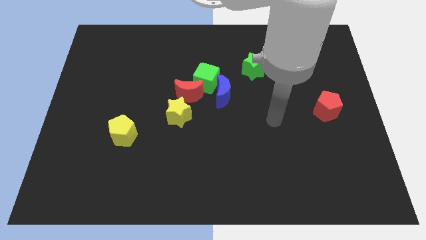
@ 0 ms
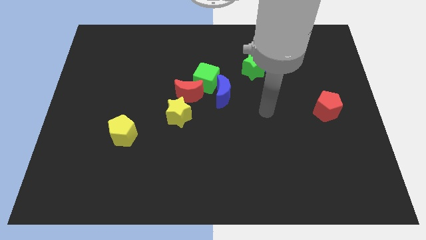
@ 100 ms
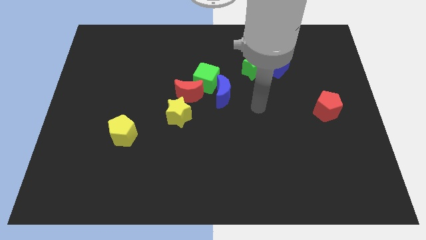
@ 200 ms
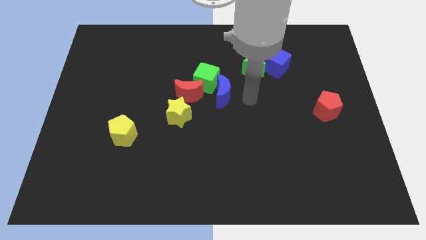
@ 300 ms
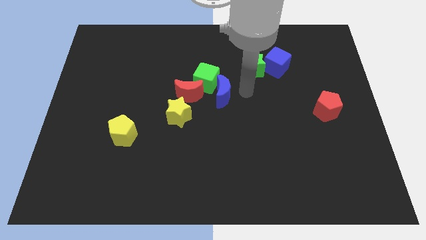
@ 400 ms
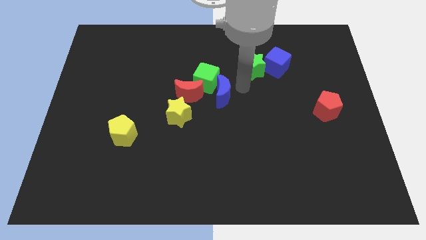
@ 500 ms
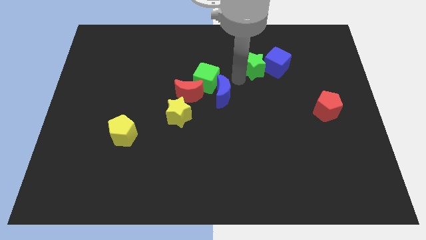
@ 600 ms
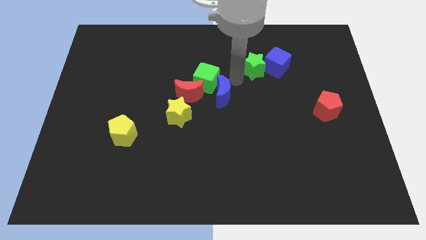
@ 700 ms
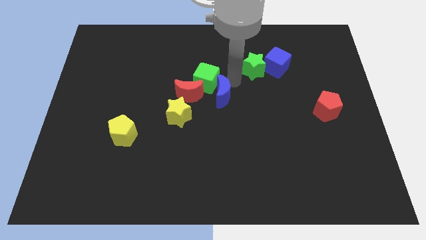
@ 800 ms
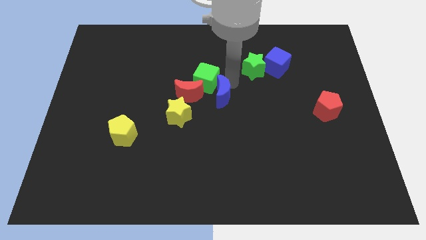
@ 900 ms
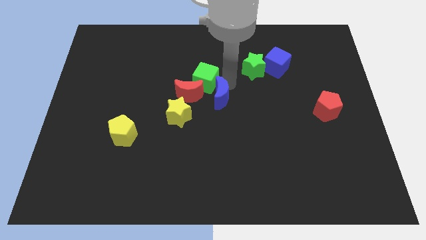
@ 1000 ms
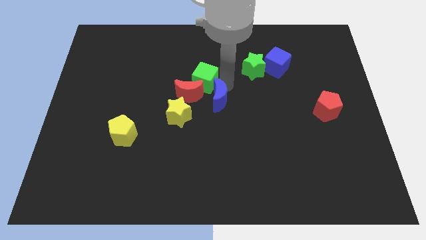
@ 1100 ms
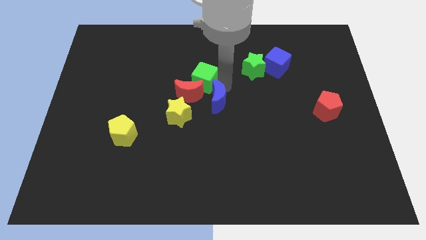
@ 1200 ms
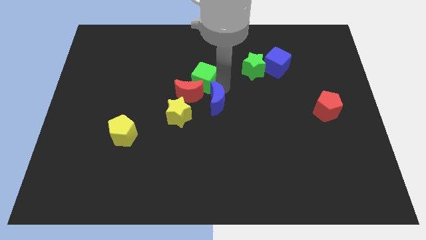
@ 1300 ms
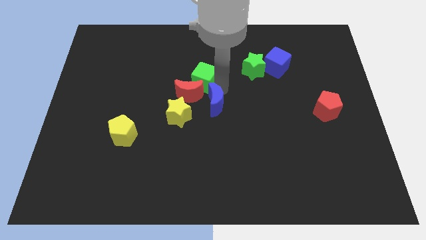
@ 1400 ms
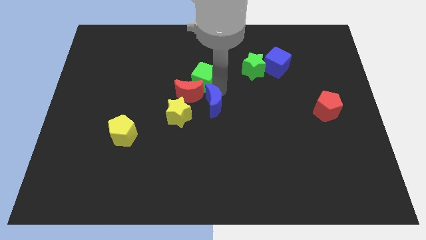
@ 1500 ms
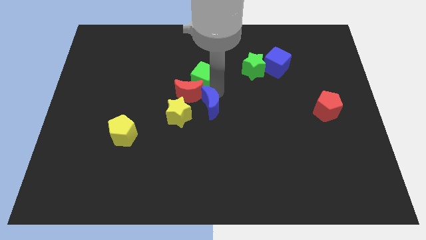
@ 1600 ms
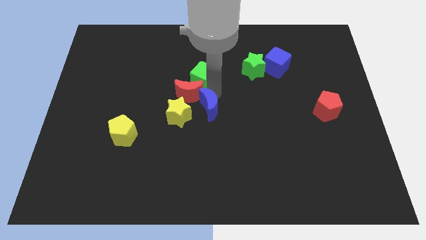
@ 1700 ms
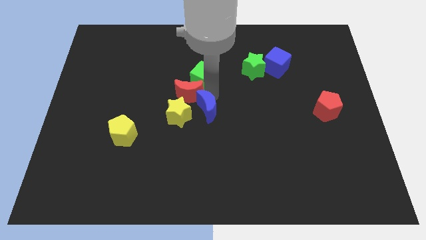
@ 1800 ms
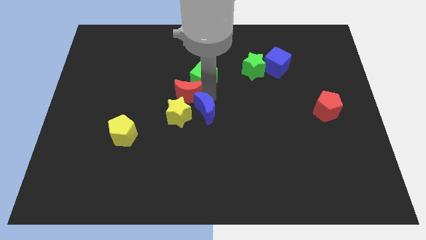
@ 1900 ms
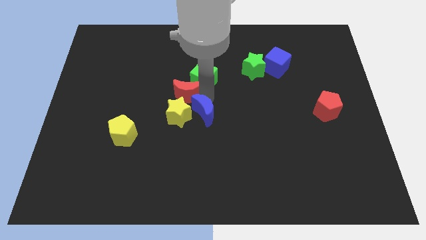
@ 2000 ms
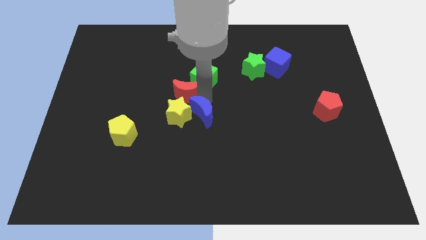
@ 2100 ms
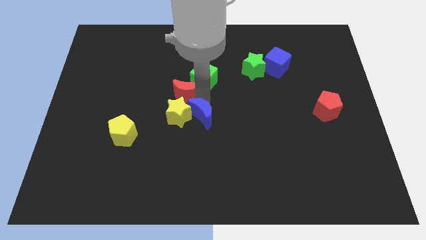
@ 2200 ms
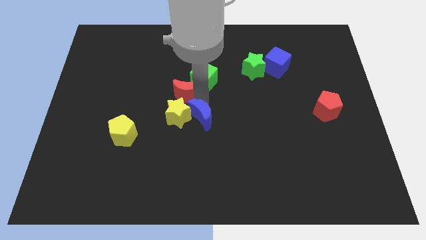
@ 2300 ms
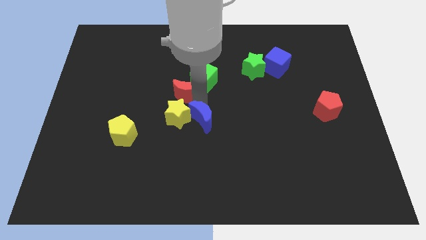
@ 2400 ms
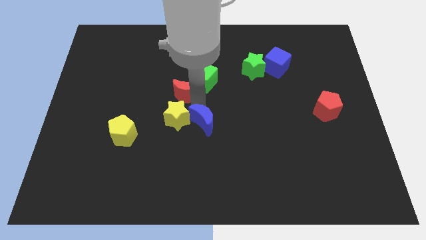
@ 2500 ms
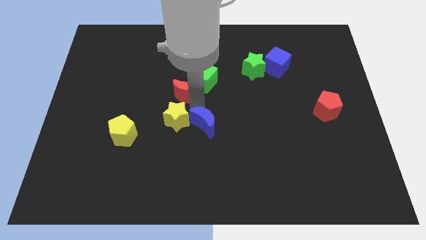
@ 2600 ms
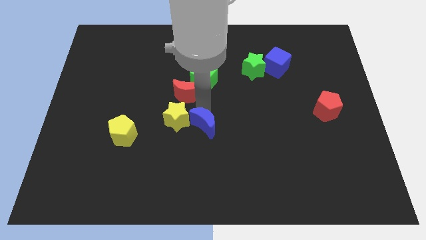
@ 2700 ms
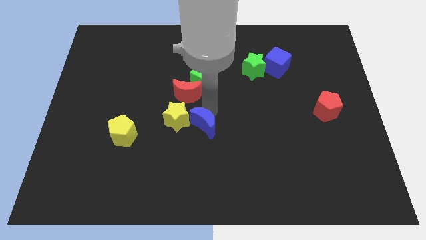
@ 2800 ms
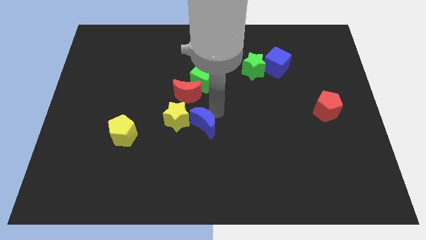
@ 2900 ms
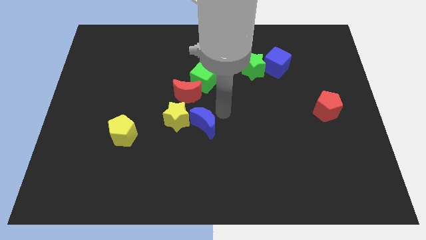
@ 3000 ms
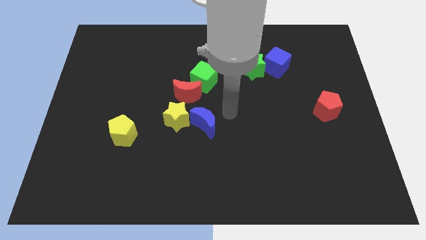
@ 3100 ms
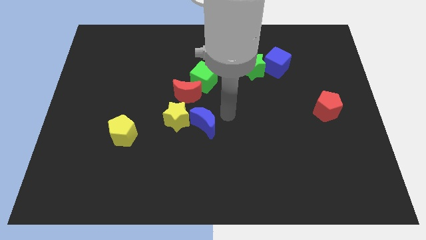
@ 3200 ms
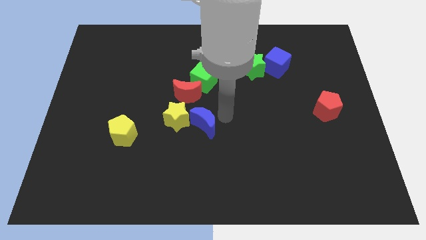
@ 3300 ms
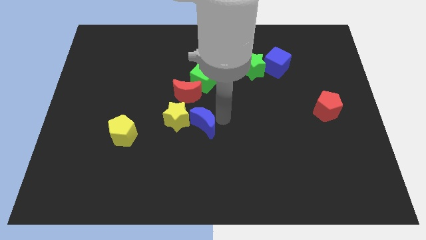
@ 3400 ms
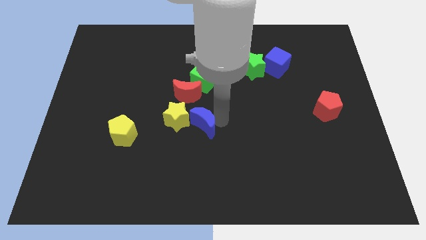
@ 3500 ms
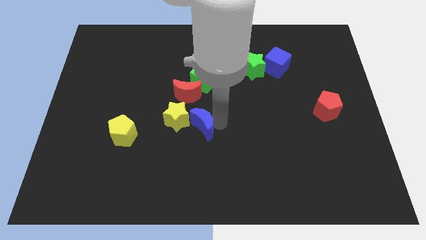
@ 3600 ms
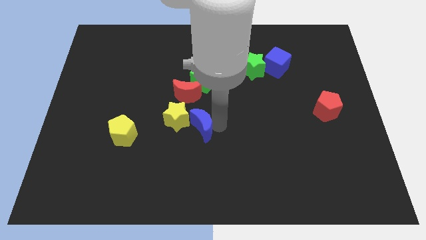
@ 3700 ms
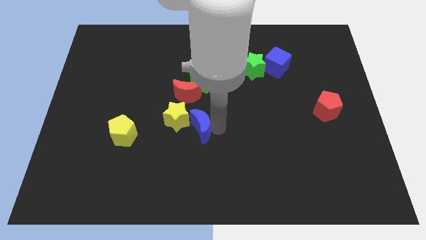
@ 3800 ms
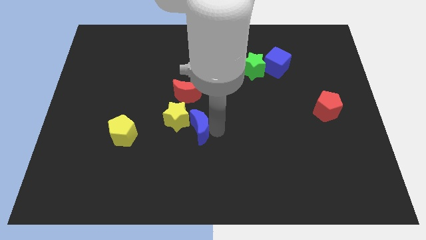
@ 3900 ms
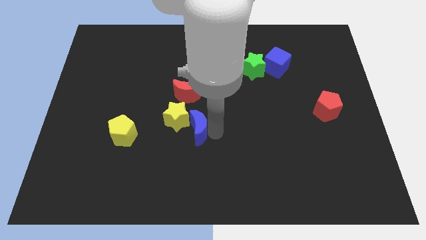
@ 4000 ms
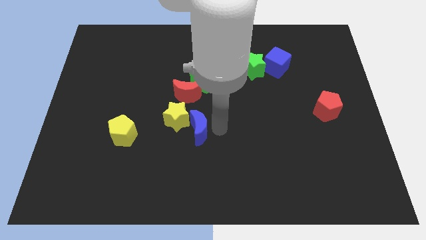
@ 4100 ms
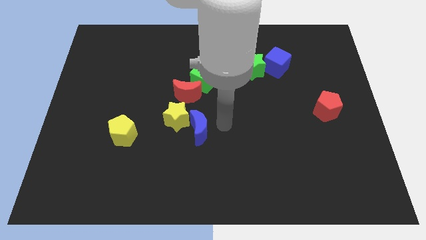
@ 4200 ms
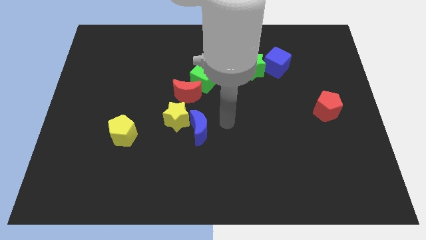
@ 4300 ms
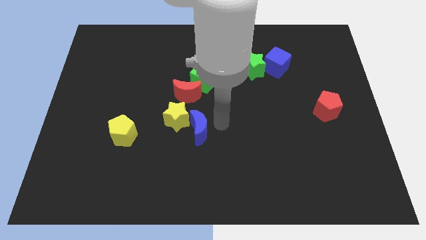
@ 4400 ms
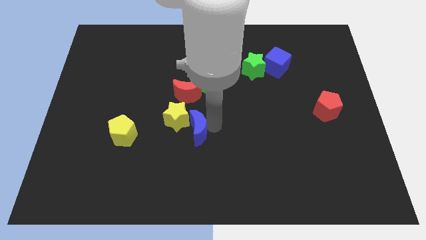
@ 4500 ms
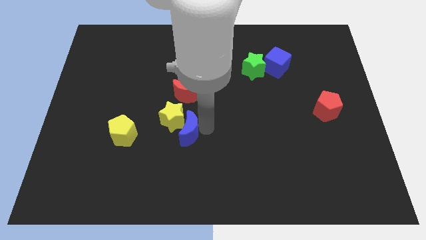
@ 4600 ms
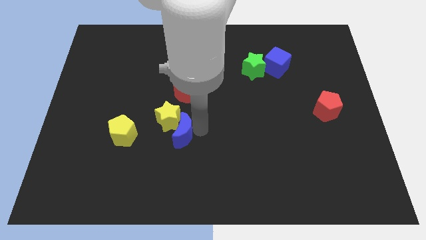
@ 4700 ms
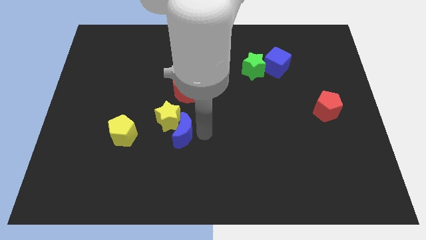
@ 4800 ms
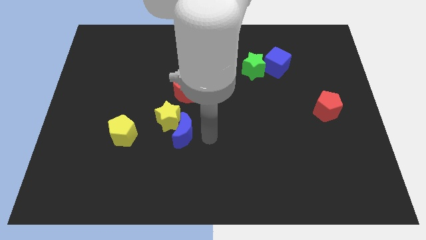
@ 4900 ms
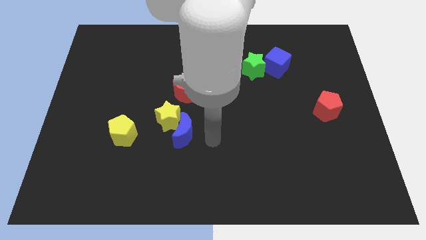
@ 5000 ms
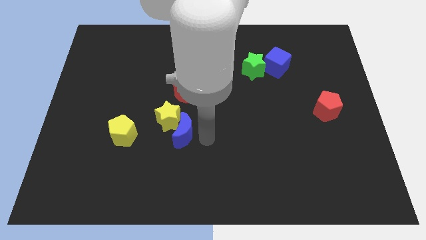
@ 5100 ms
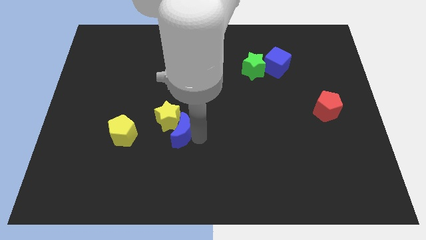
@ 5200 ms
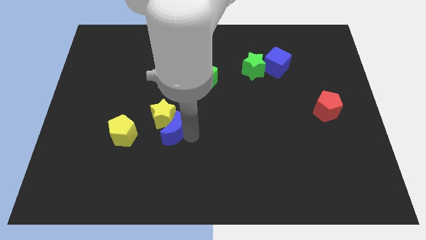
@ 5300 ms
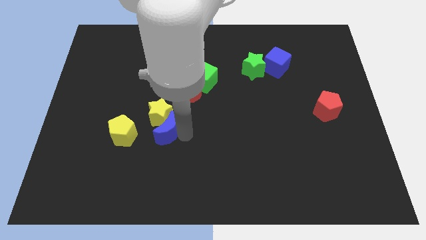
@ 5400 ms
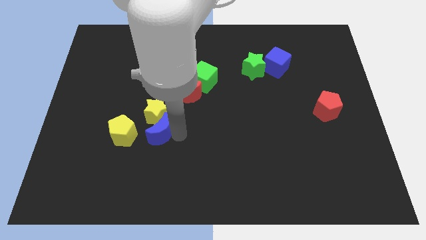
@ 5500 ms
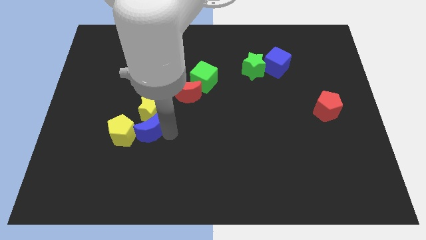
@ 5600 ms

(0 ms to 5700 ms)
put the blue moon towards the yellow pentagon

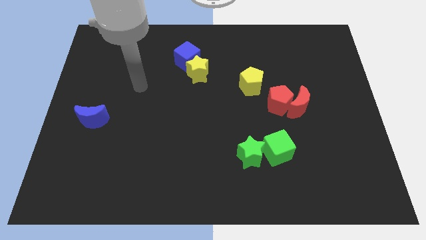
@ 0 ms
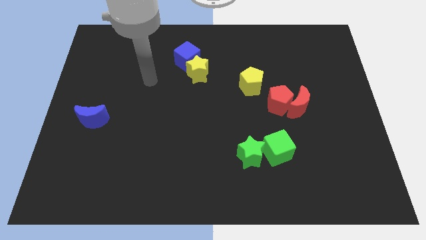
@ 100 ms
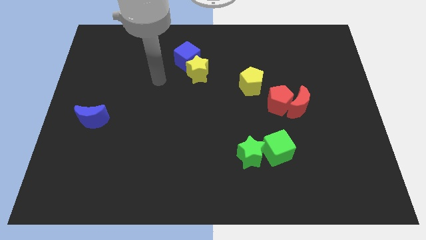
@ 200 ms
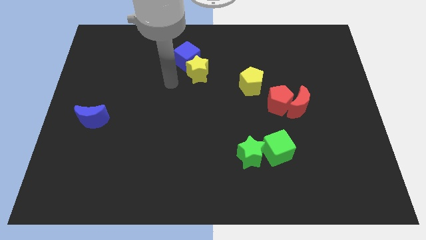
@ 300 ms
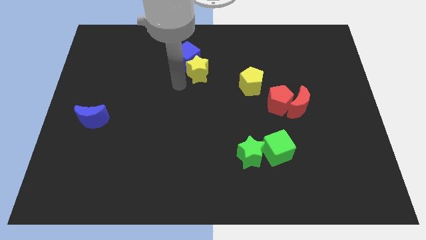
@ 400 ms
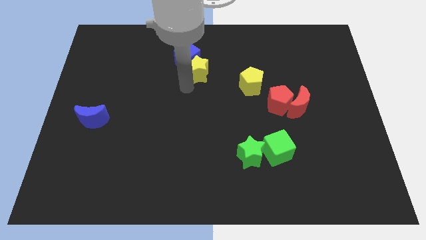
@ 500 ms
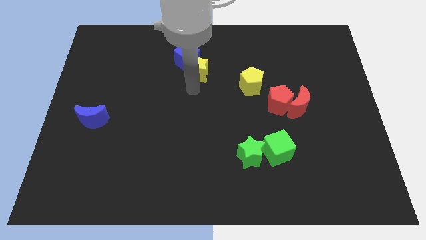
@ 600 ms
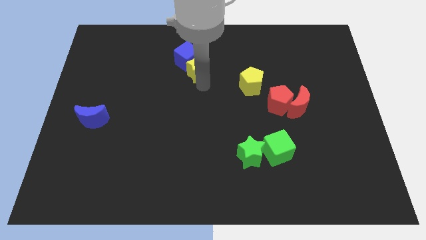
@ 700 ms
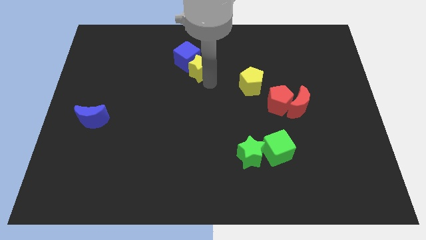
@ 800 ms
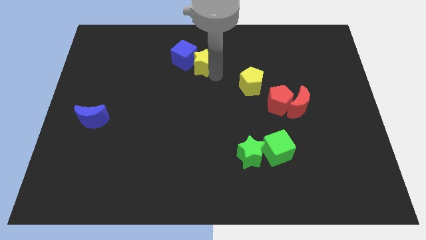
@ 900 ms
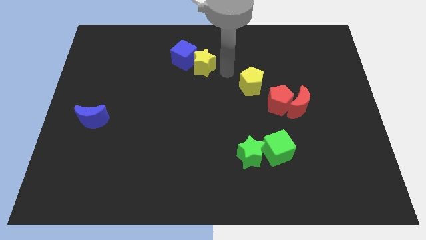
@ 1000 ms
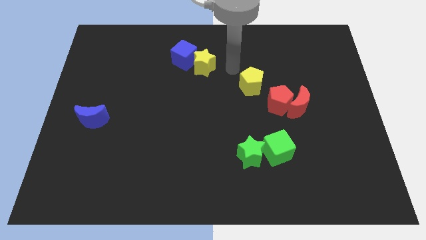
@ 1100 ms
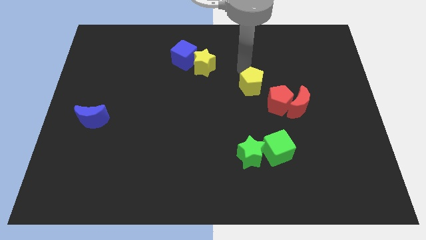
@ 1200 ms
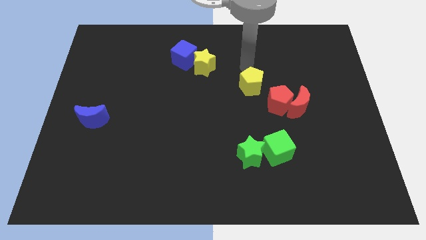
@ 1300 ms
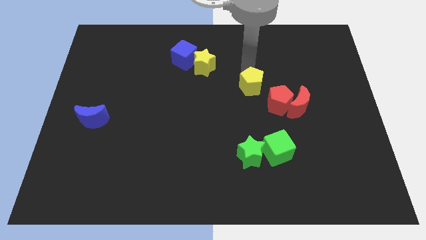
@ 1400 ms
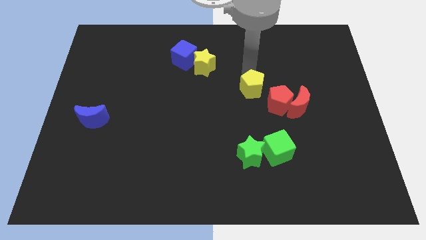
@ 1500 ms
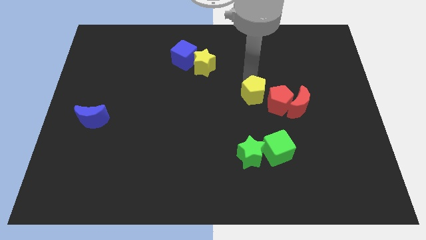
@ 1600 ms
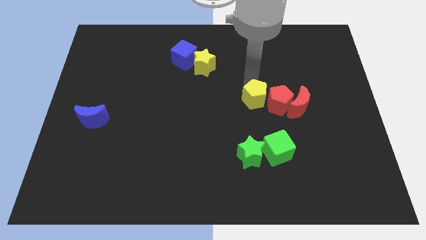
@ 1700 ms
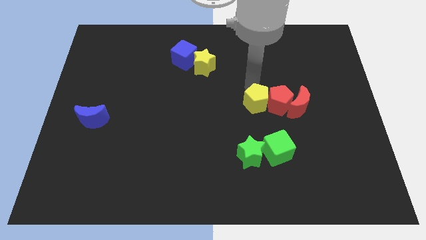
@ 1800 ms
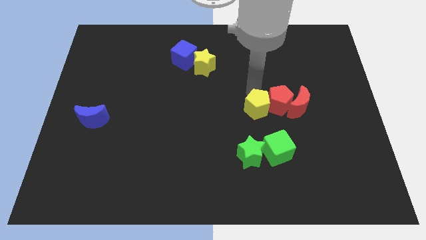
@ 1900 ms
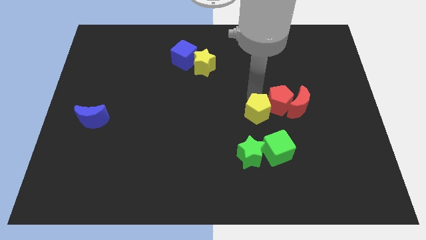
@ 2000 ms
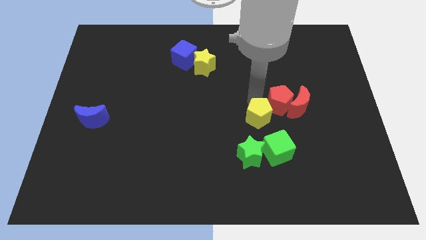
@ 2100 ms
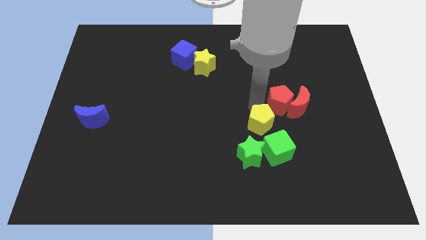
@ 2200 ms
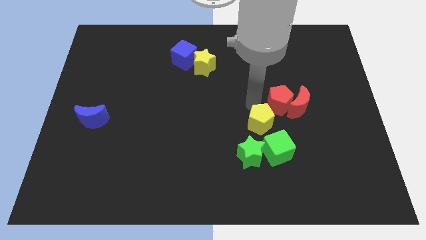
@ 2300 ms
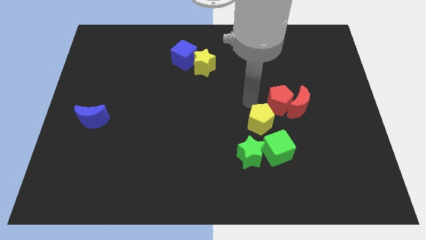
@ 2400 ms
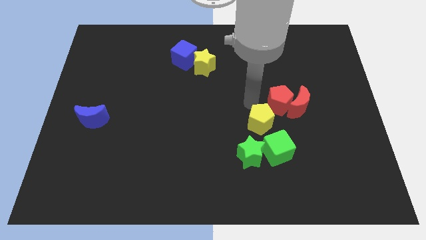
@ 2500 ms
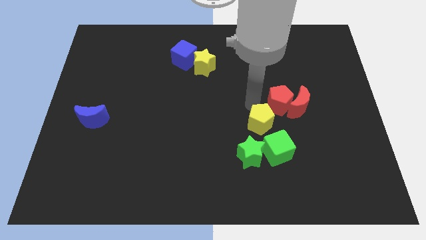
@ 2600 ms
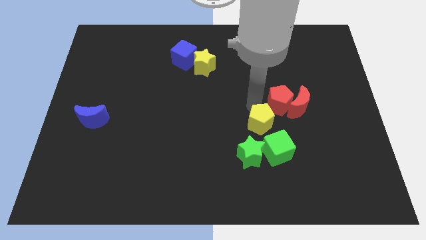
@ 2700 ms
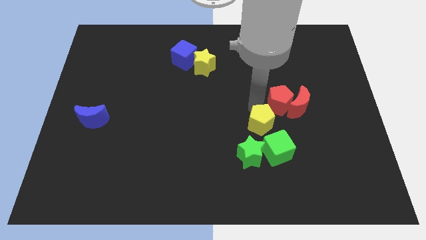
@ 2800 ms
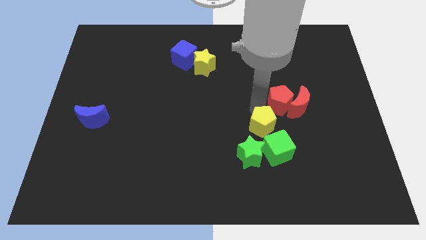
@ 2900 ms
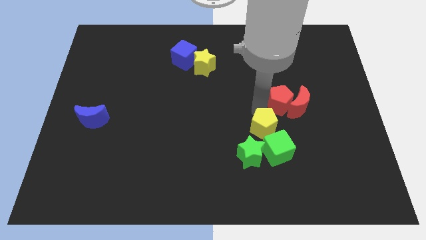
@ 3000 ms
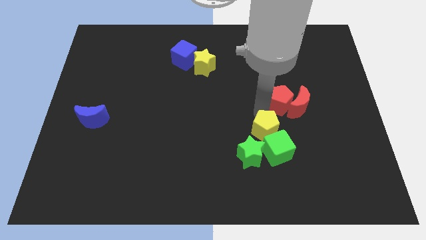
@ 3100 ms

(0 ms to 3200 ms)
move the yellow pentagon to the green cube
